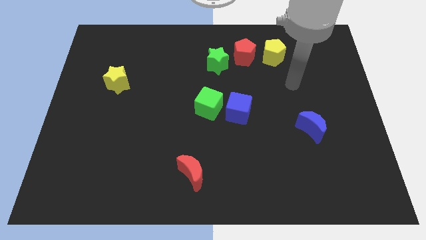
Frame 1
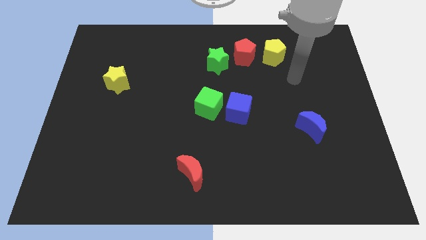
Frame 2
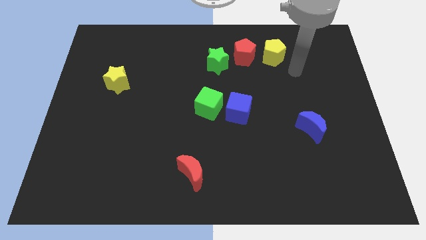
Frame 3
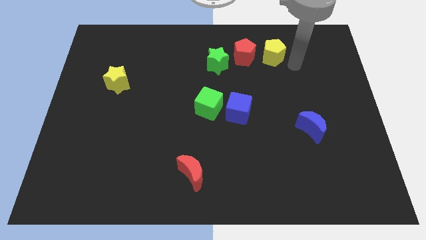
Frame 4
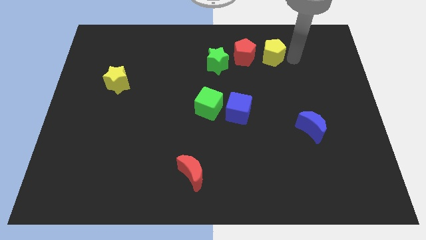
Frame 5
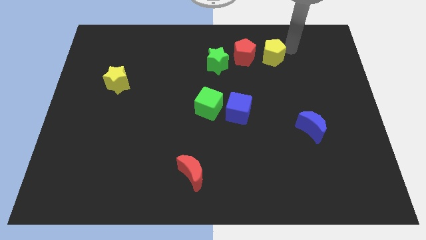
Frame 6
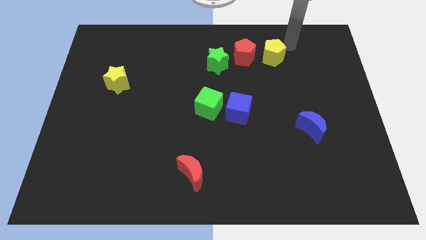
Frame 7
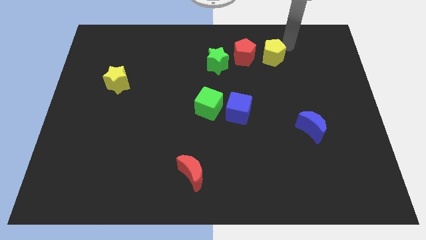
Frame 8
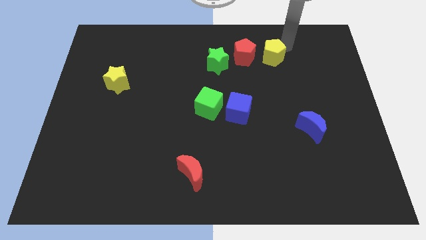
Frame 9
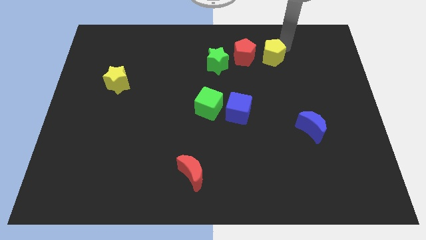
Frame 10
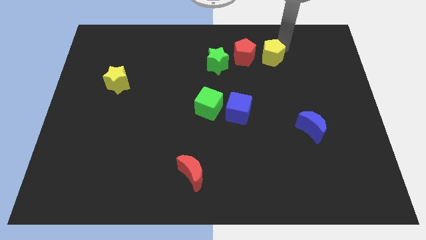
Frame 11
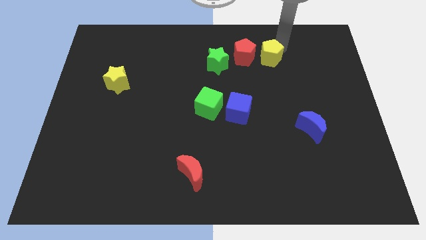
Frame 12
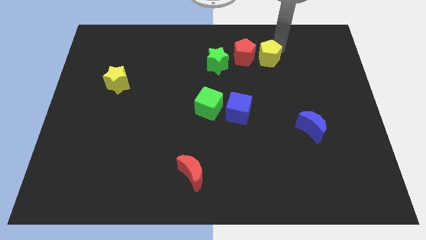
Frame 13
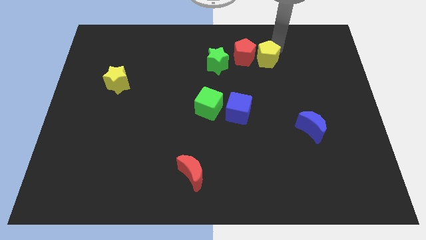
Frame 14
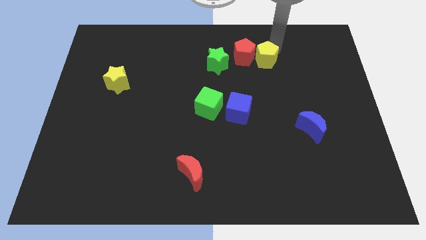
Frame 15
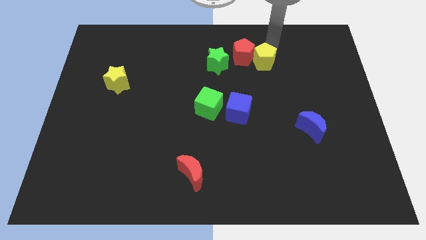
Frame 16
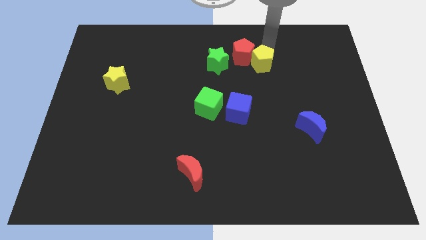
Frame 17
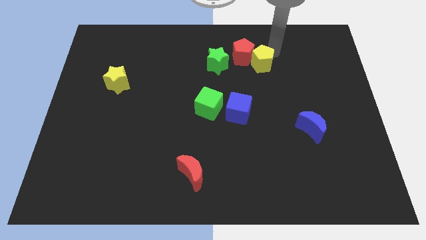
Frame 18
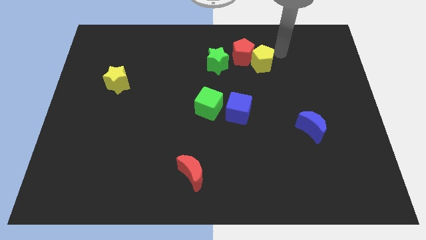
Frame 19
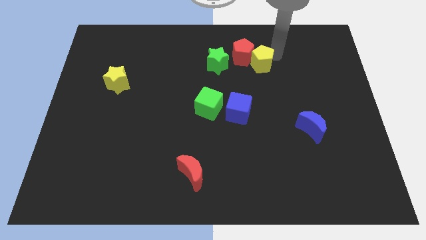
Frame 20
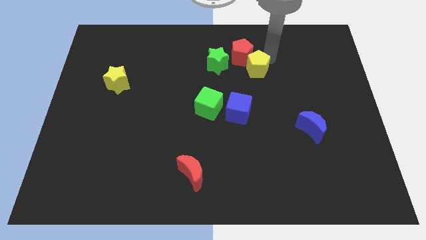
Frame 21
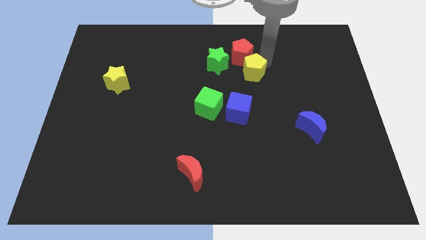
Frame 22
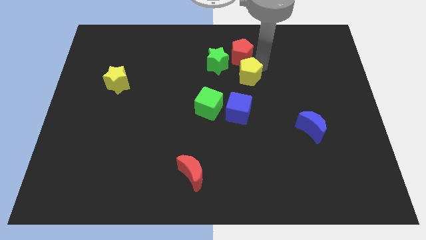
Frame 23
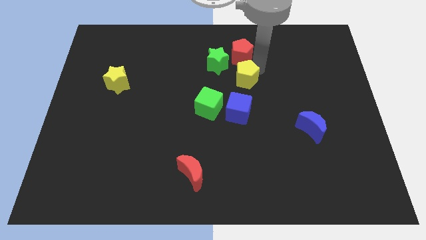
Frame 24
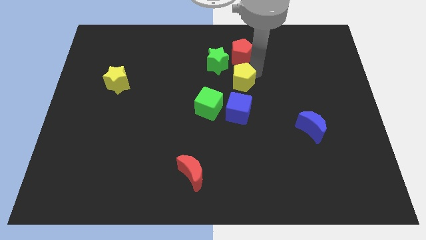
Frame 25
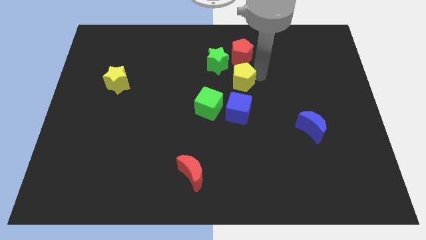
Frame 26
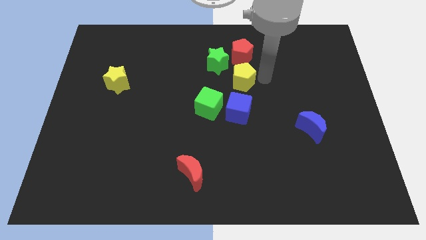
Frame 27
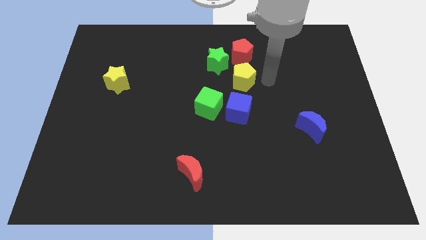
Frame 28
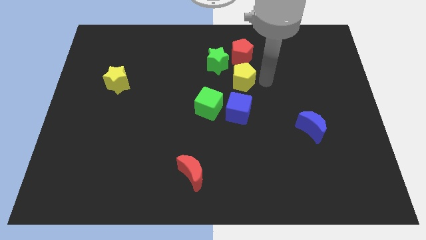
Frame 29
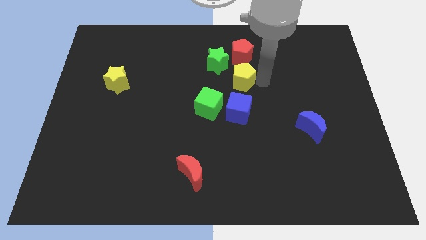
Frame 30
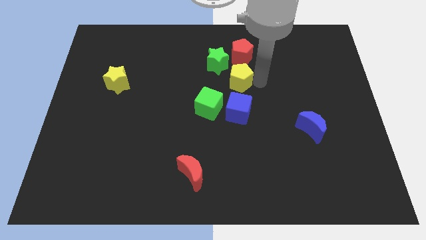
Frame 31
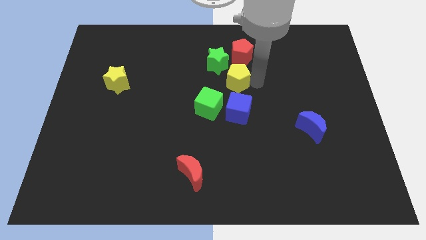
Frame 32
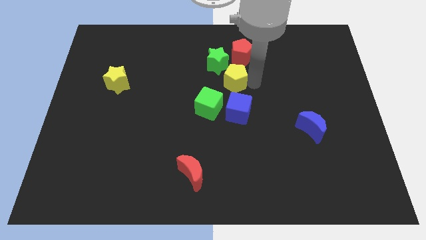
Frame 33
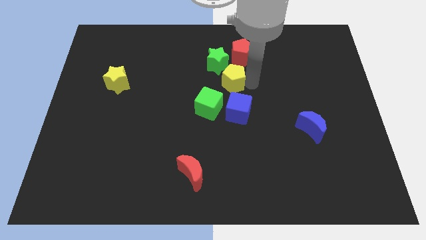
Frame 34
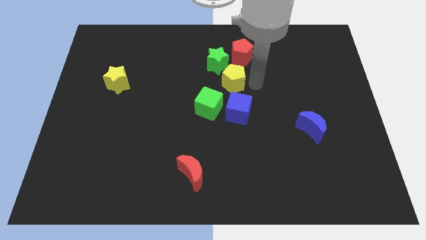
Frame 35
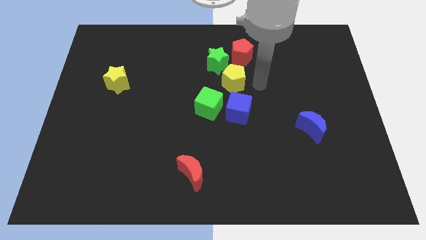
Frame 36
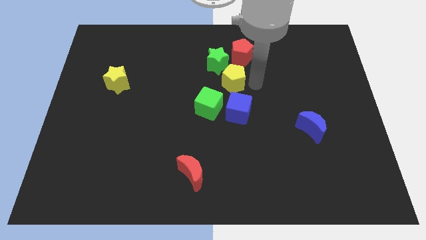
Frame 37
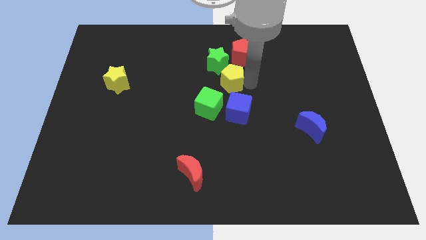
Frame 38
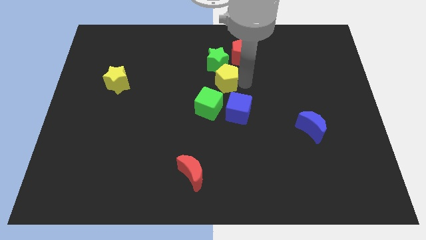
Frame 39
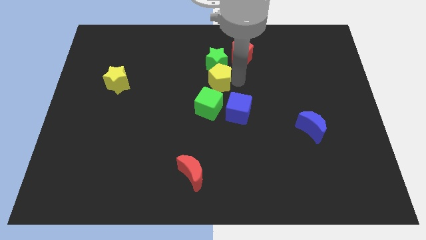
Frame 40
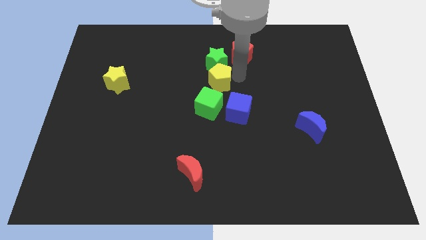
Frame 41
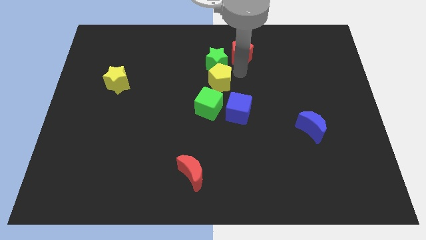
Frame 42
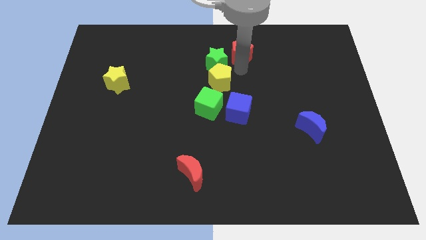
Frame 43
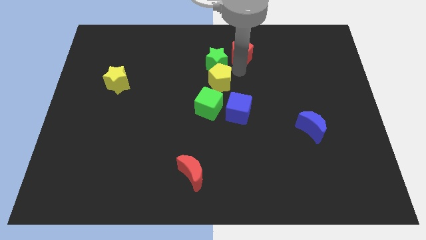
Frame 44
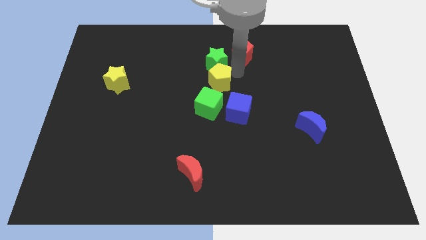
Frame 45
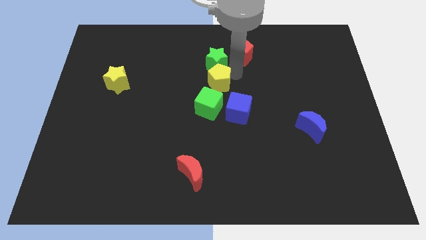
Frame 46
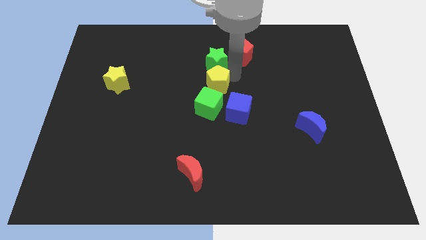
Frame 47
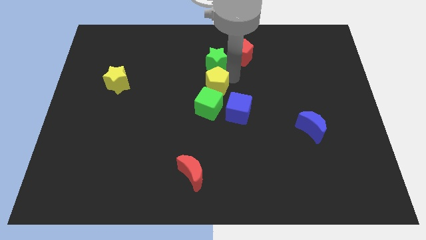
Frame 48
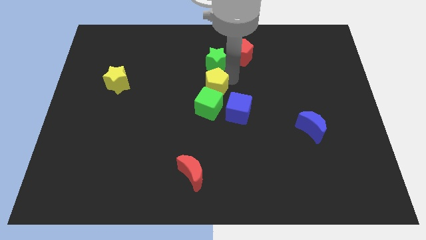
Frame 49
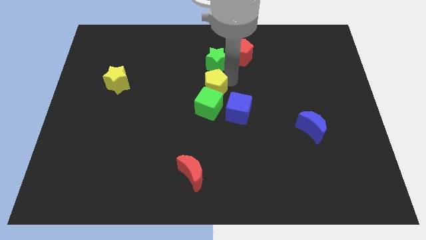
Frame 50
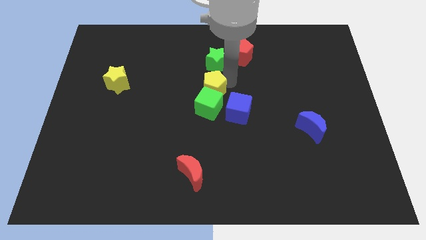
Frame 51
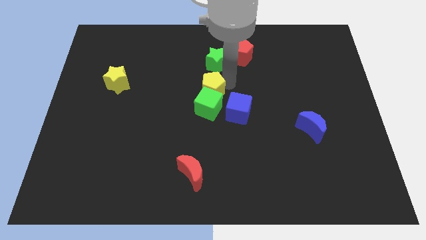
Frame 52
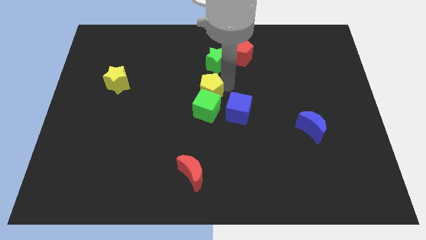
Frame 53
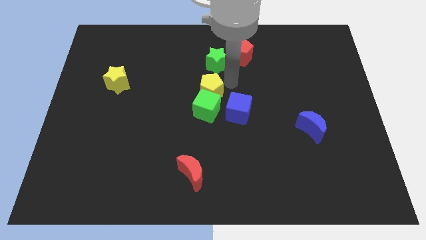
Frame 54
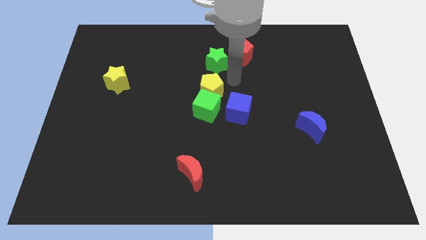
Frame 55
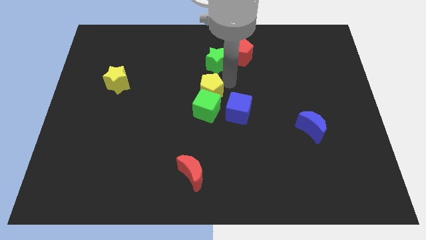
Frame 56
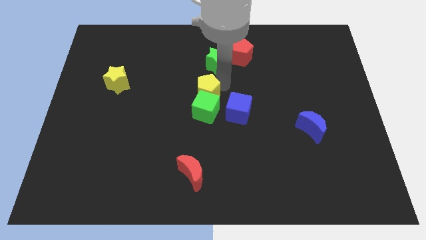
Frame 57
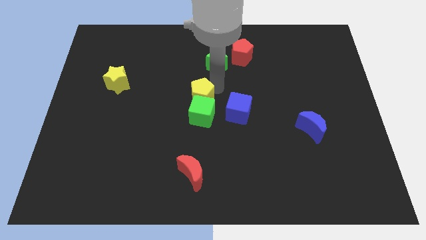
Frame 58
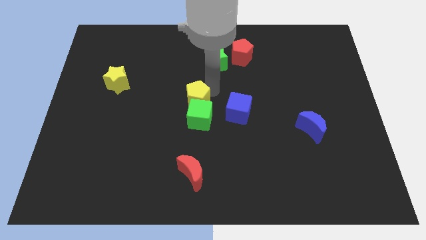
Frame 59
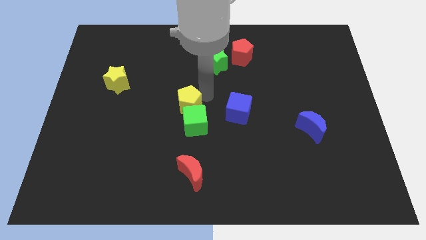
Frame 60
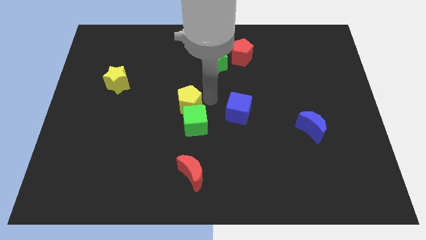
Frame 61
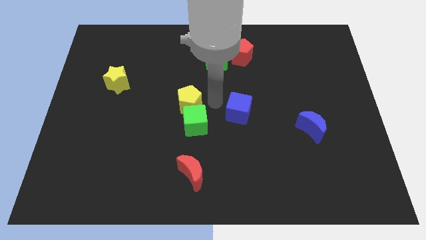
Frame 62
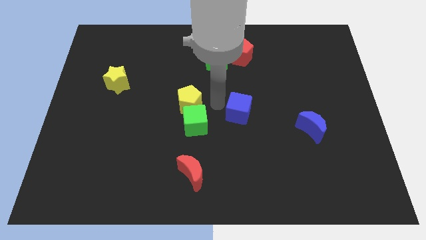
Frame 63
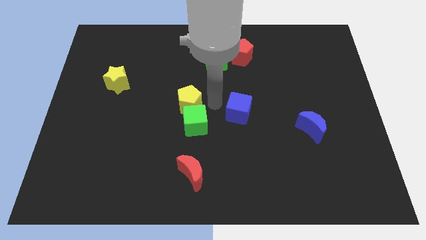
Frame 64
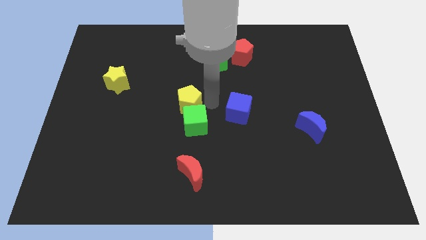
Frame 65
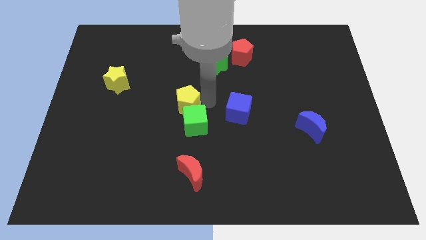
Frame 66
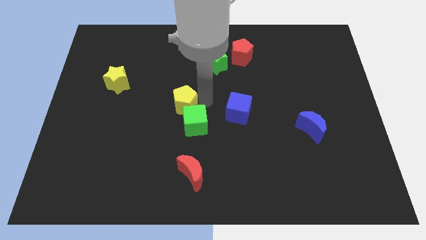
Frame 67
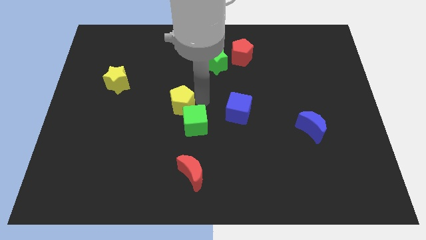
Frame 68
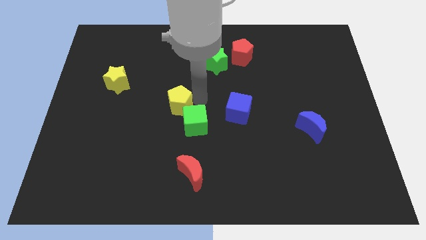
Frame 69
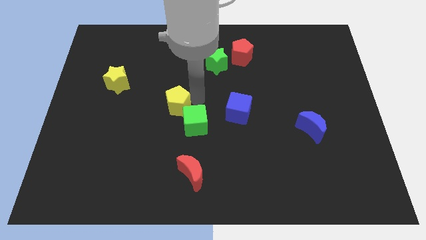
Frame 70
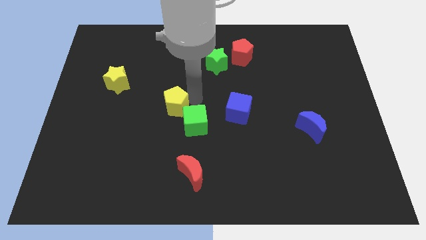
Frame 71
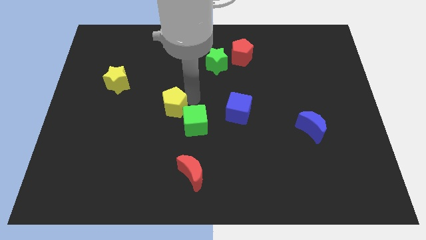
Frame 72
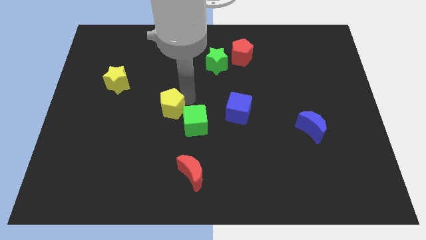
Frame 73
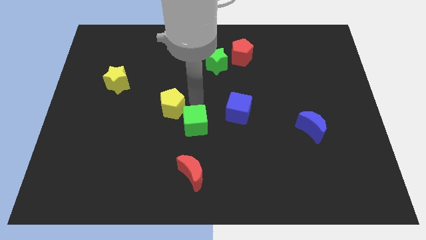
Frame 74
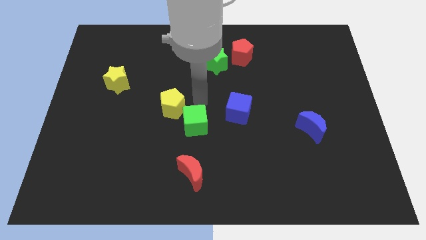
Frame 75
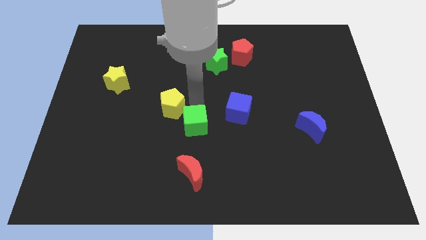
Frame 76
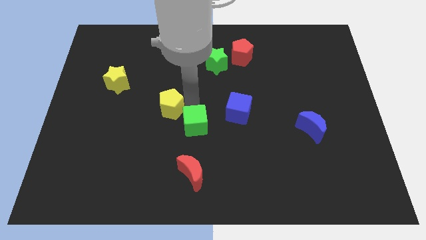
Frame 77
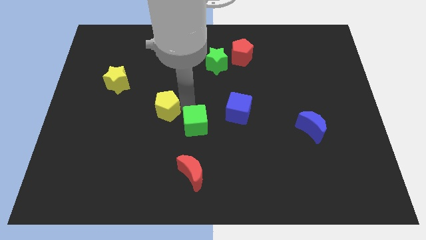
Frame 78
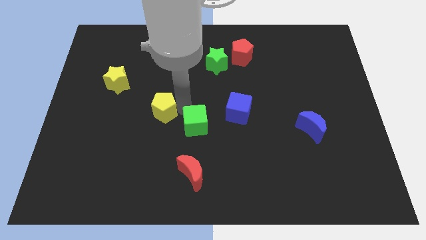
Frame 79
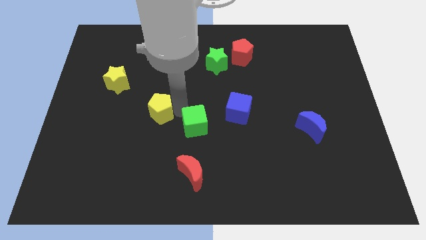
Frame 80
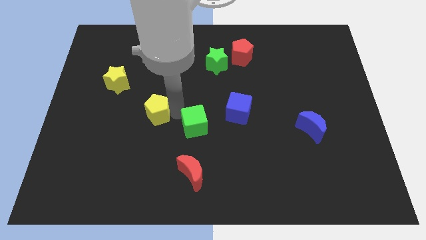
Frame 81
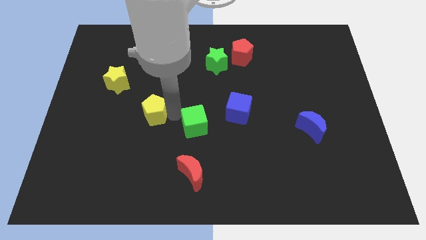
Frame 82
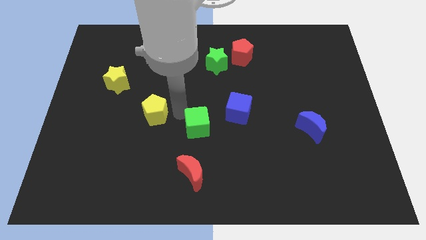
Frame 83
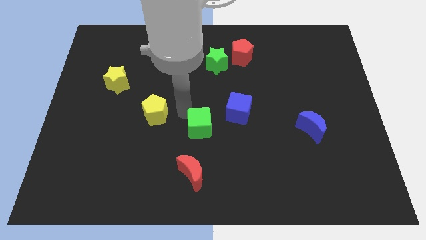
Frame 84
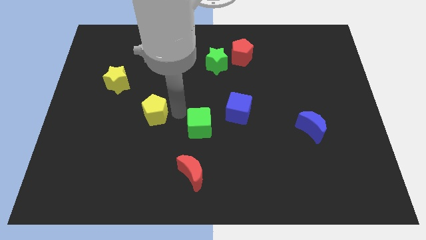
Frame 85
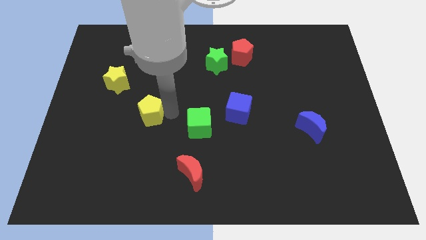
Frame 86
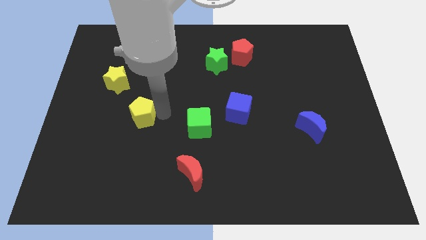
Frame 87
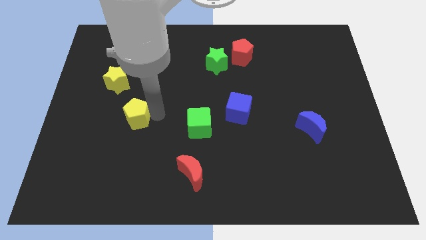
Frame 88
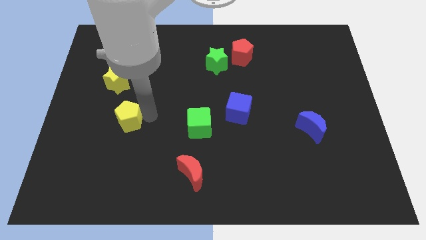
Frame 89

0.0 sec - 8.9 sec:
push the yellow pentagon to the bottom side of the yellow star
